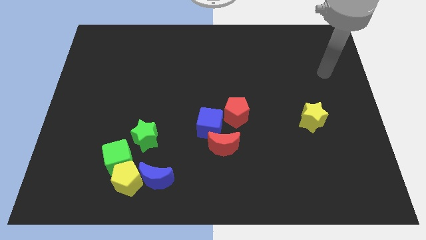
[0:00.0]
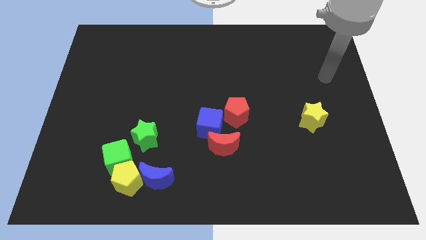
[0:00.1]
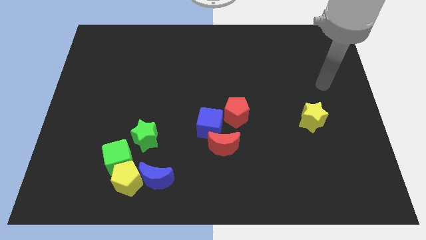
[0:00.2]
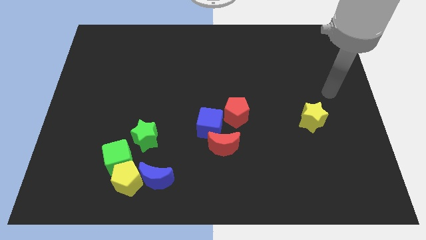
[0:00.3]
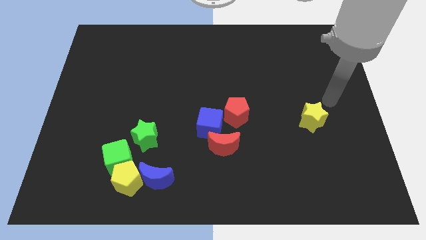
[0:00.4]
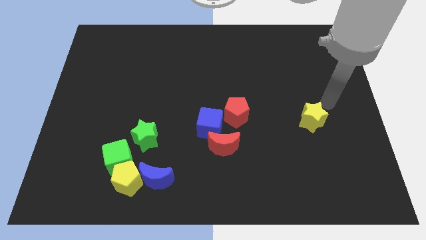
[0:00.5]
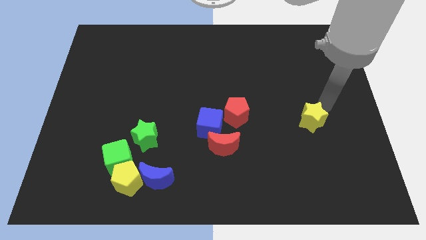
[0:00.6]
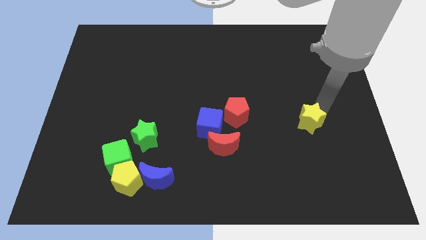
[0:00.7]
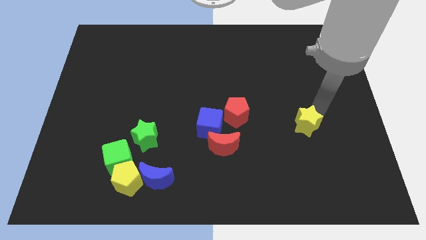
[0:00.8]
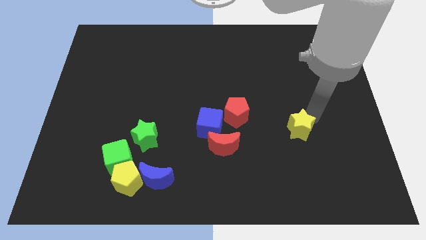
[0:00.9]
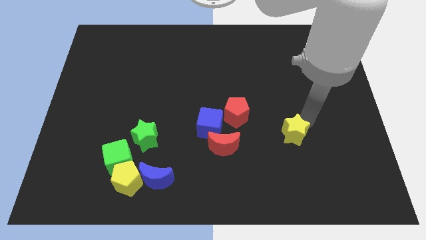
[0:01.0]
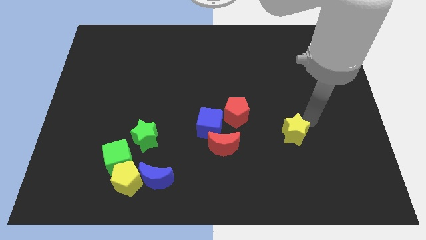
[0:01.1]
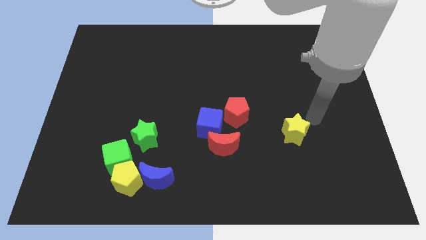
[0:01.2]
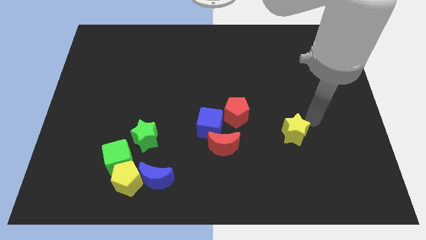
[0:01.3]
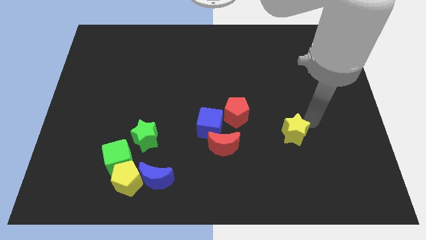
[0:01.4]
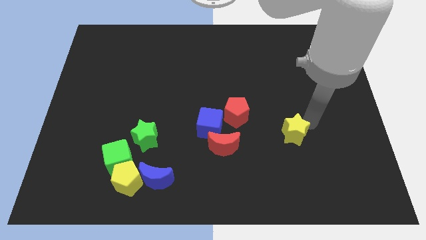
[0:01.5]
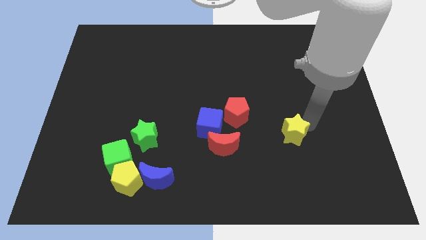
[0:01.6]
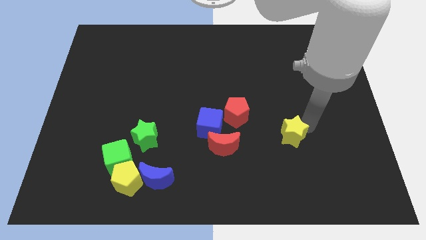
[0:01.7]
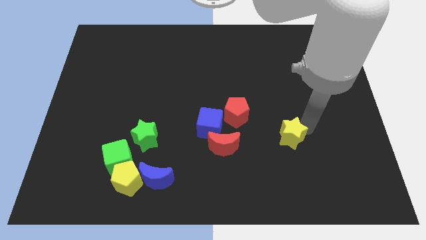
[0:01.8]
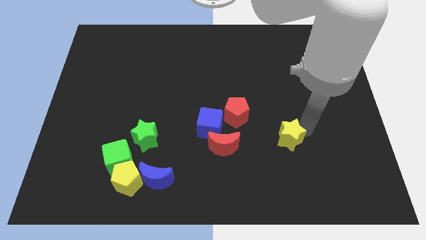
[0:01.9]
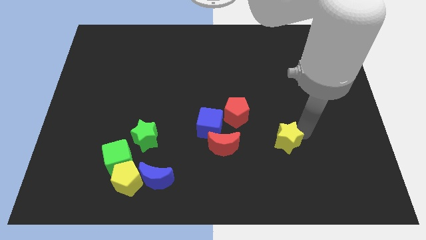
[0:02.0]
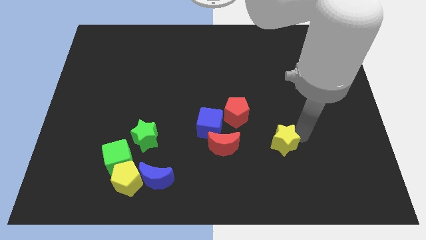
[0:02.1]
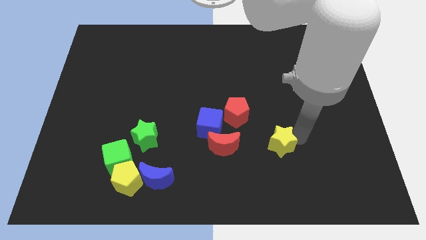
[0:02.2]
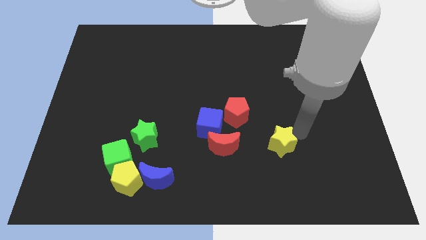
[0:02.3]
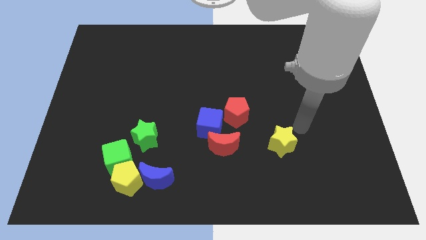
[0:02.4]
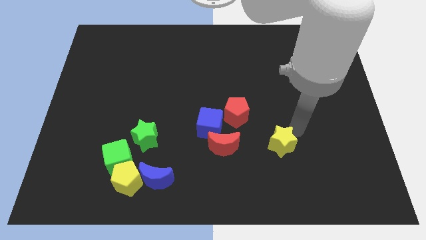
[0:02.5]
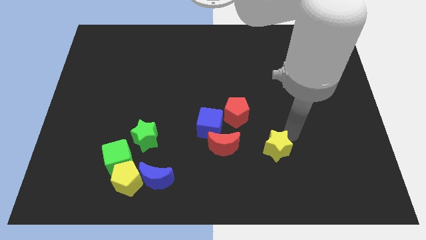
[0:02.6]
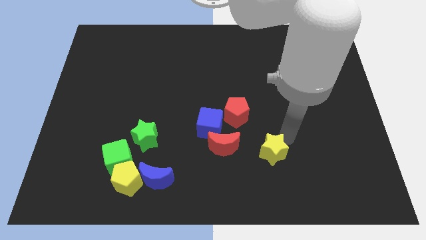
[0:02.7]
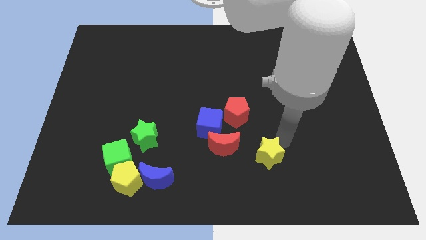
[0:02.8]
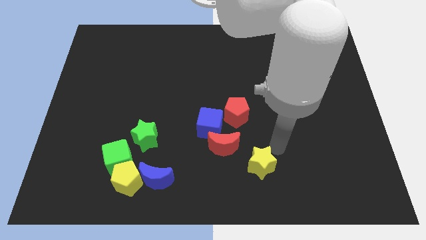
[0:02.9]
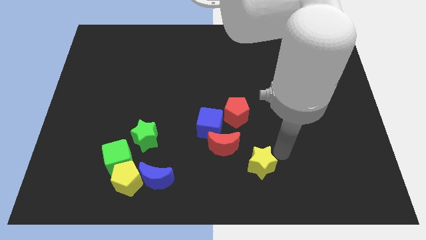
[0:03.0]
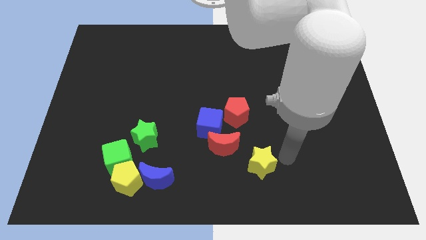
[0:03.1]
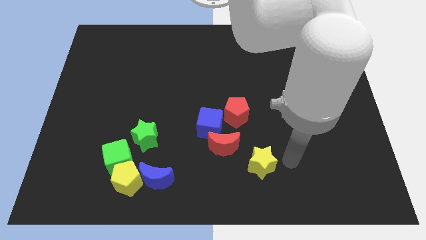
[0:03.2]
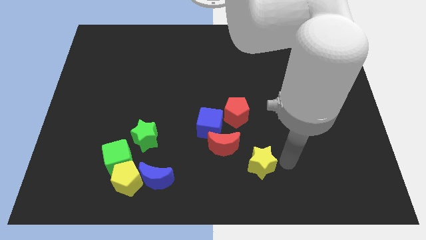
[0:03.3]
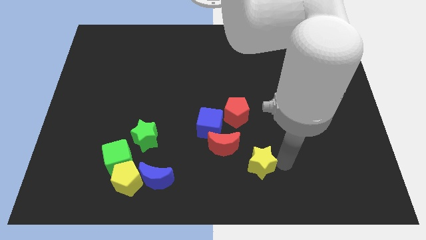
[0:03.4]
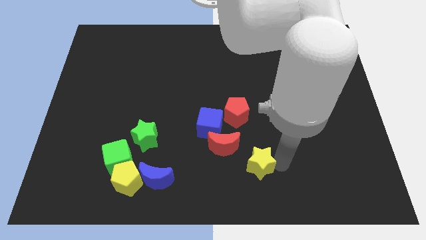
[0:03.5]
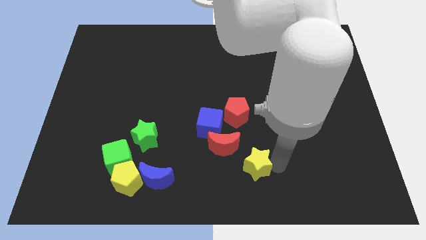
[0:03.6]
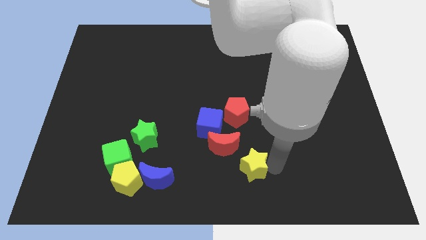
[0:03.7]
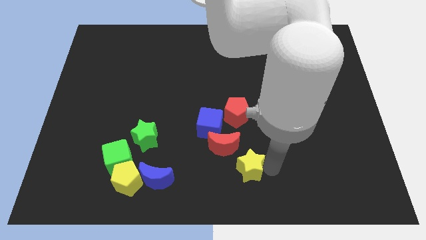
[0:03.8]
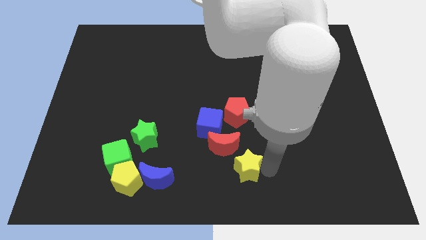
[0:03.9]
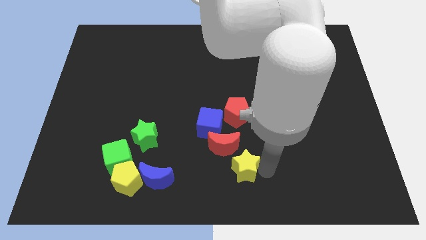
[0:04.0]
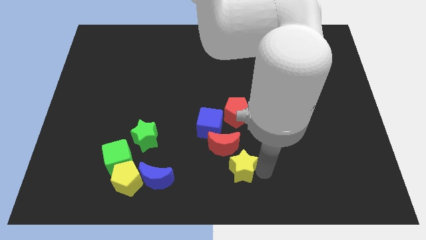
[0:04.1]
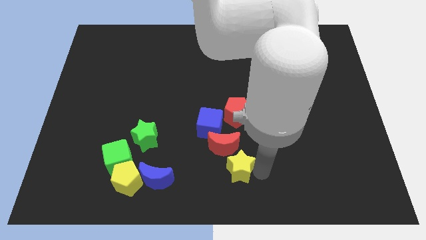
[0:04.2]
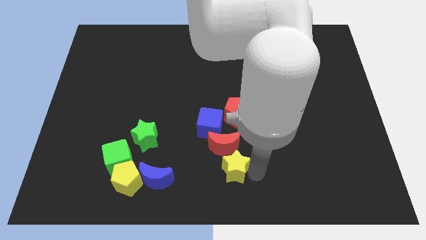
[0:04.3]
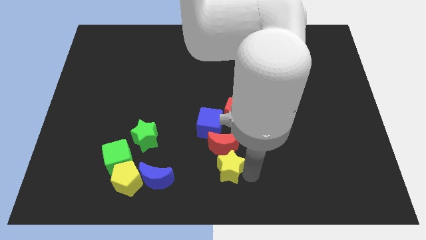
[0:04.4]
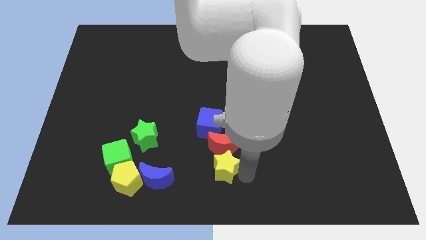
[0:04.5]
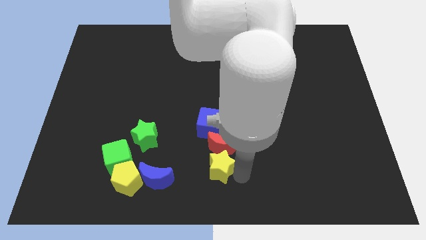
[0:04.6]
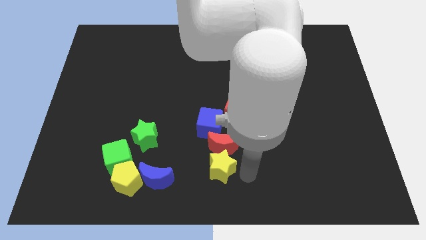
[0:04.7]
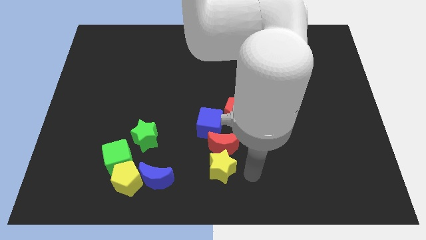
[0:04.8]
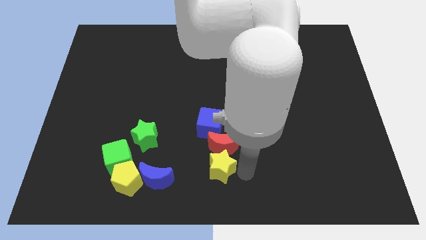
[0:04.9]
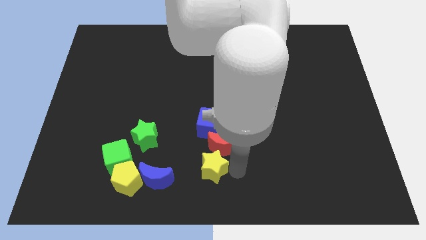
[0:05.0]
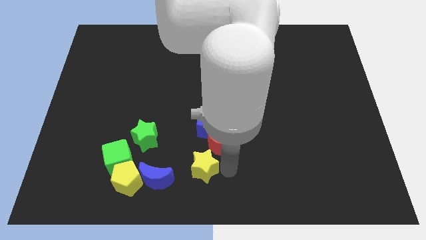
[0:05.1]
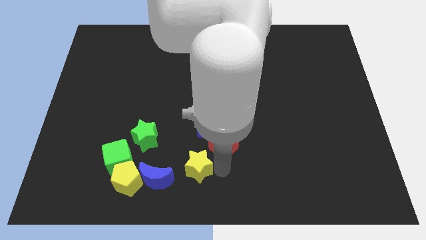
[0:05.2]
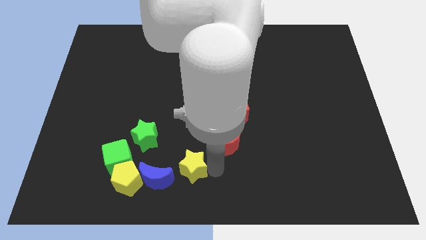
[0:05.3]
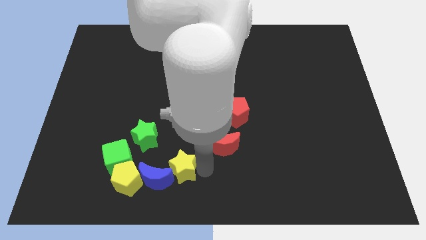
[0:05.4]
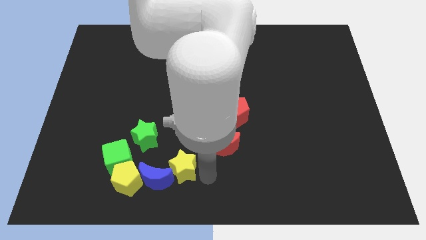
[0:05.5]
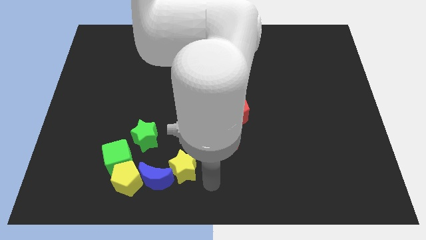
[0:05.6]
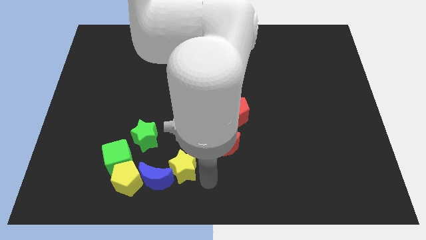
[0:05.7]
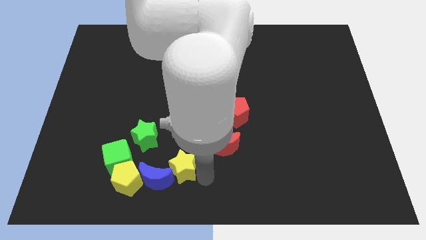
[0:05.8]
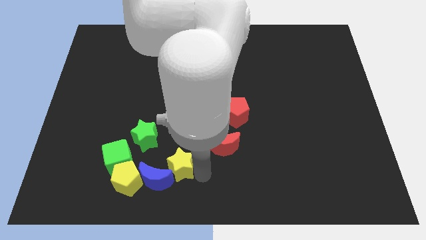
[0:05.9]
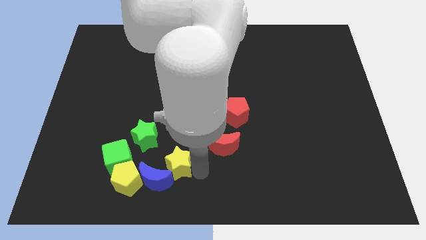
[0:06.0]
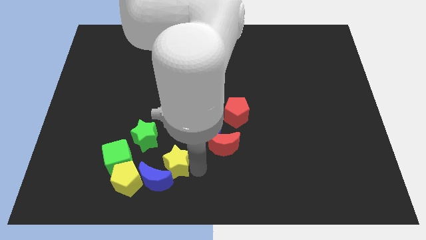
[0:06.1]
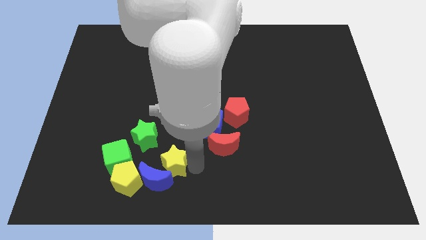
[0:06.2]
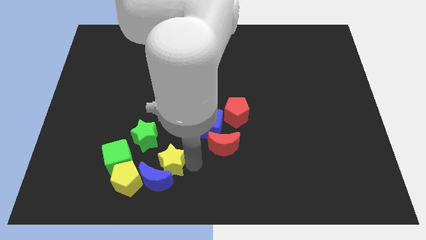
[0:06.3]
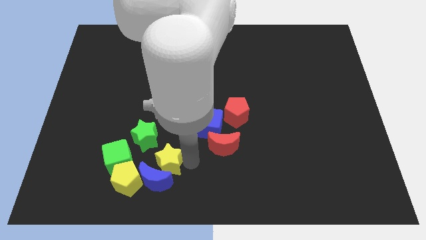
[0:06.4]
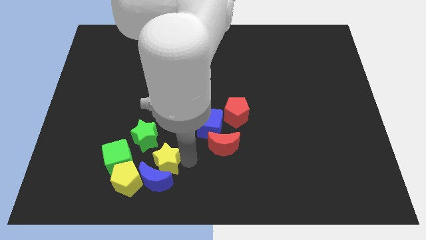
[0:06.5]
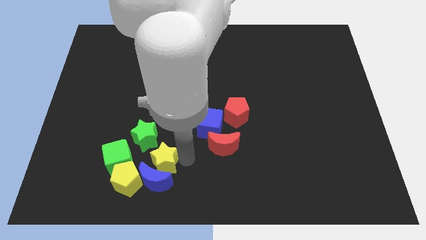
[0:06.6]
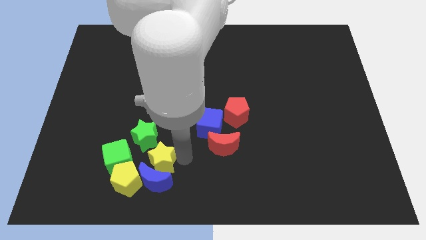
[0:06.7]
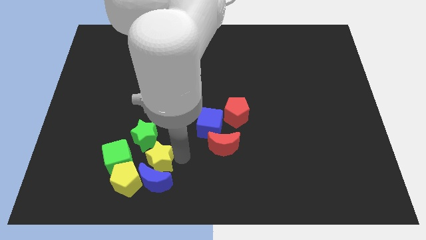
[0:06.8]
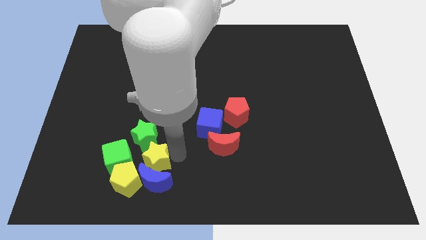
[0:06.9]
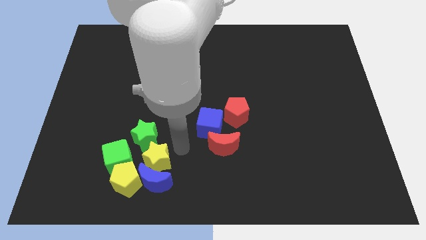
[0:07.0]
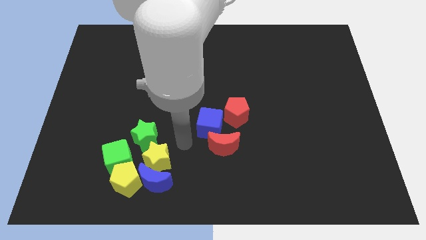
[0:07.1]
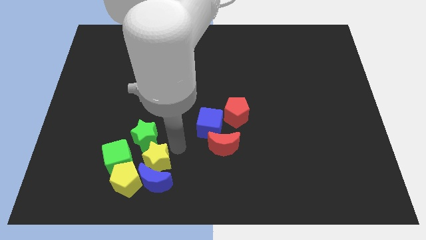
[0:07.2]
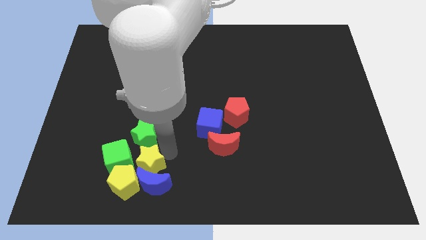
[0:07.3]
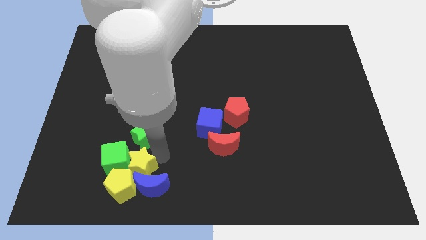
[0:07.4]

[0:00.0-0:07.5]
move the yellow star to the yellow pentagon

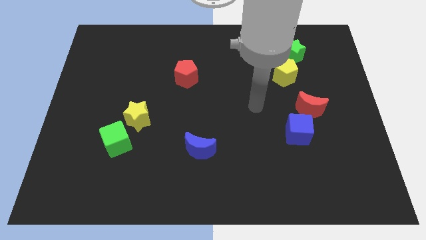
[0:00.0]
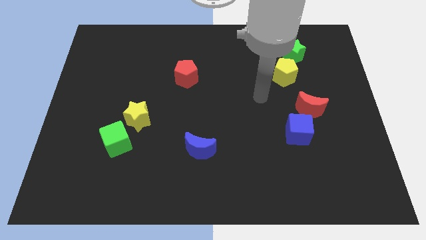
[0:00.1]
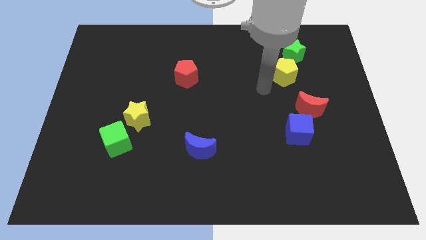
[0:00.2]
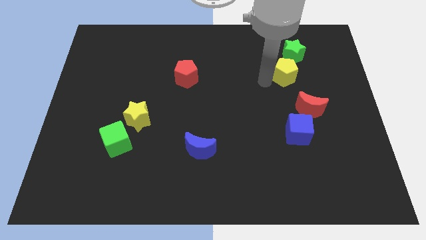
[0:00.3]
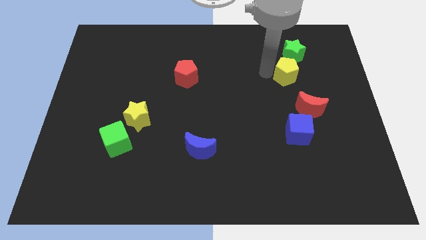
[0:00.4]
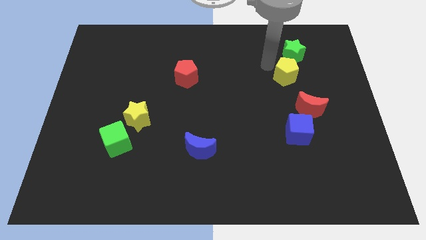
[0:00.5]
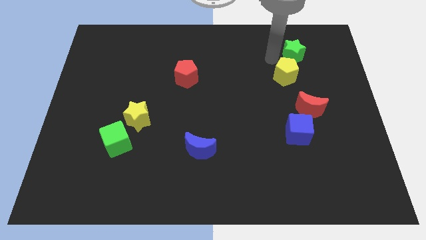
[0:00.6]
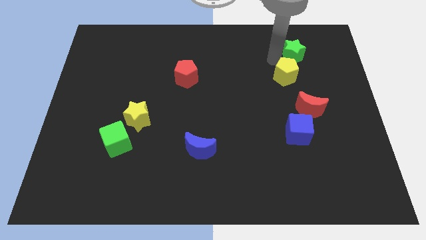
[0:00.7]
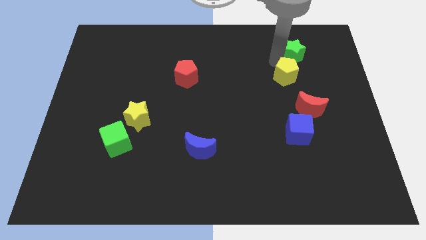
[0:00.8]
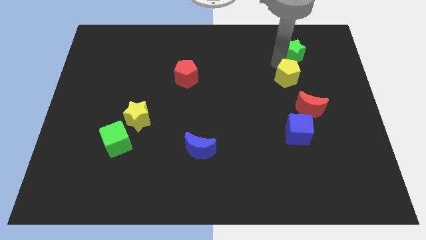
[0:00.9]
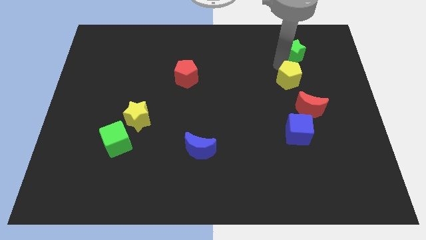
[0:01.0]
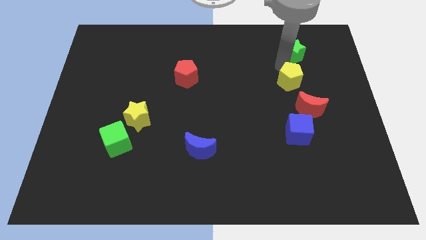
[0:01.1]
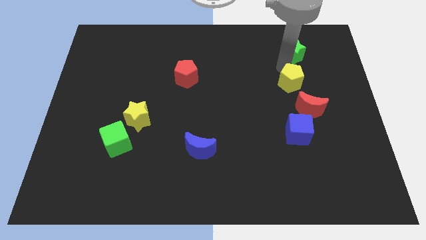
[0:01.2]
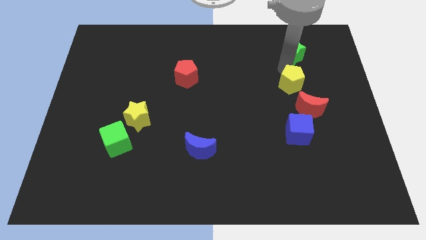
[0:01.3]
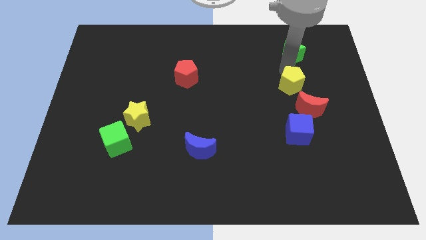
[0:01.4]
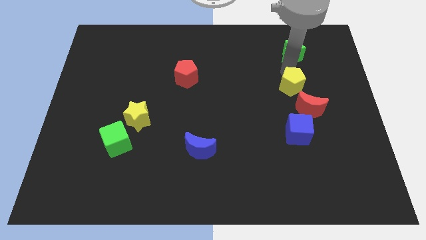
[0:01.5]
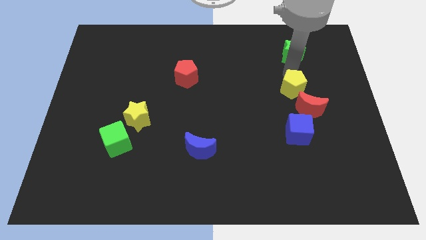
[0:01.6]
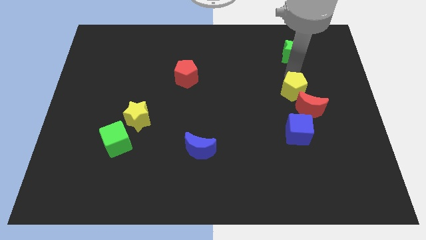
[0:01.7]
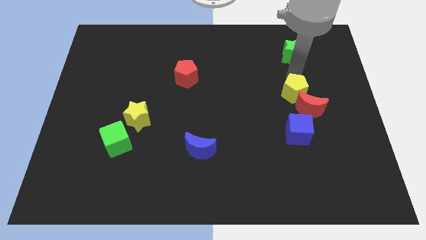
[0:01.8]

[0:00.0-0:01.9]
put the yellow pentagon next to the red moon
